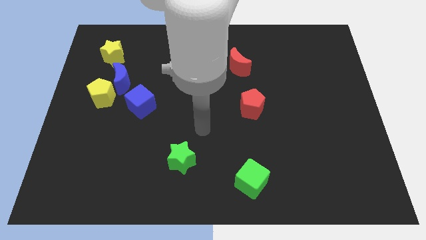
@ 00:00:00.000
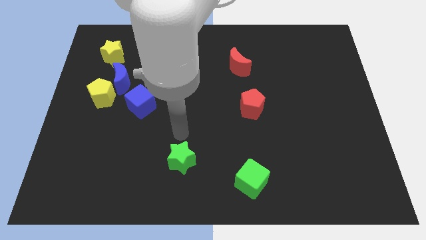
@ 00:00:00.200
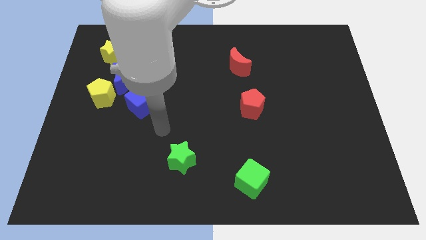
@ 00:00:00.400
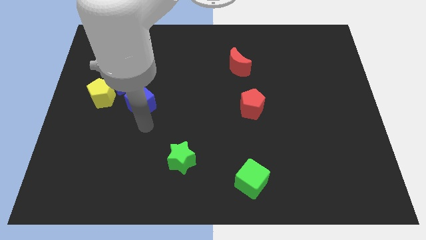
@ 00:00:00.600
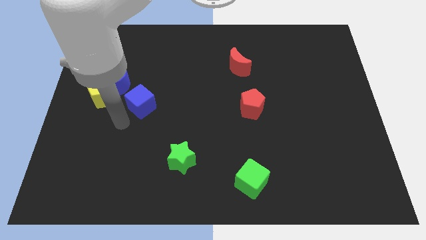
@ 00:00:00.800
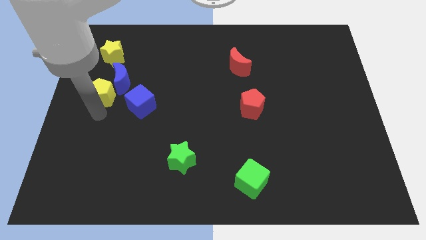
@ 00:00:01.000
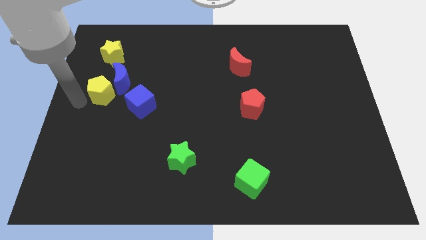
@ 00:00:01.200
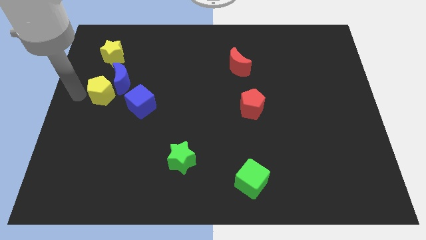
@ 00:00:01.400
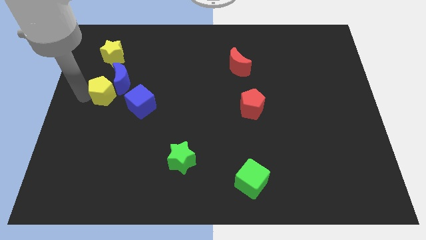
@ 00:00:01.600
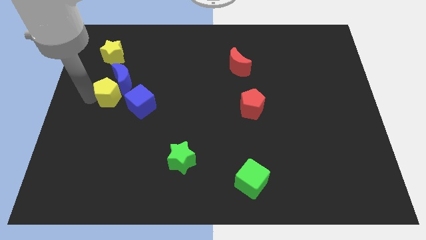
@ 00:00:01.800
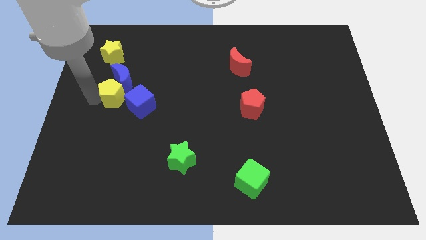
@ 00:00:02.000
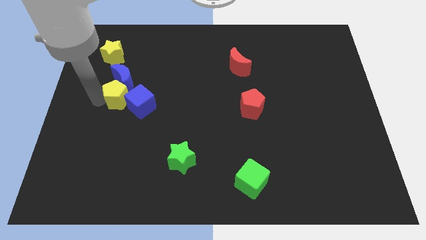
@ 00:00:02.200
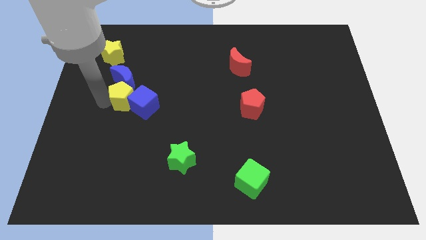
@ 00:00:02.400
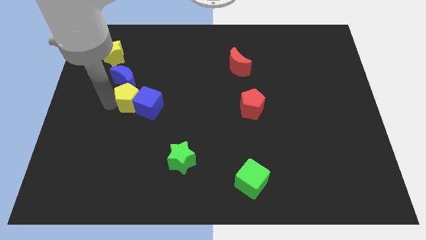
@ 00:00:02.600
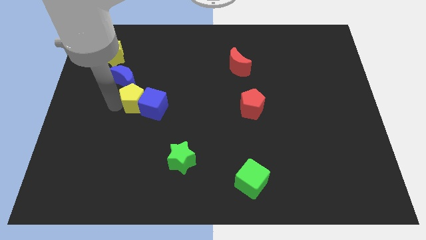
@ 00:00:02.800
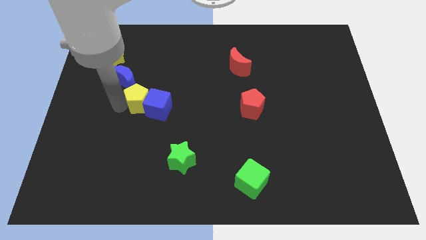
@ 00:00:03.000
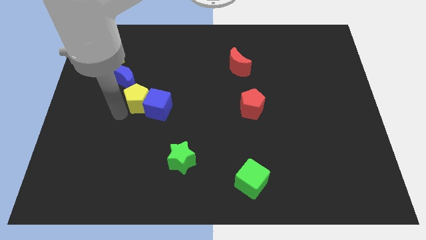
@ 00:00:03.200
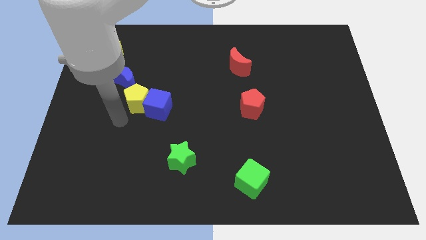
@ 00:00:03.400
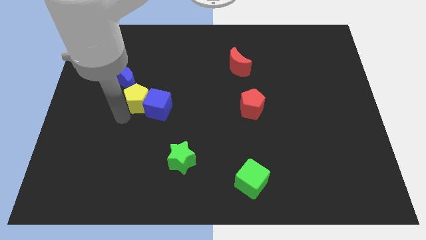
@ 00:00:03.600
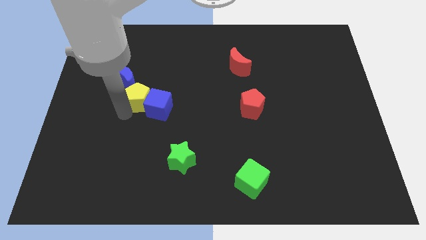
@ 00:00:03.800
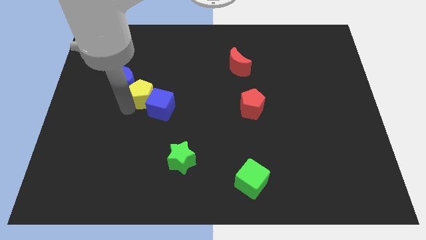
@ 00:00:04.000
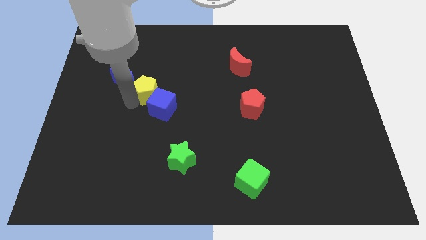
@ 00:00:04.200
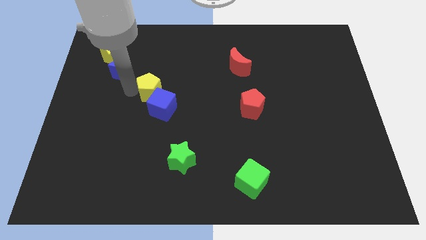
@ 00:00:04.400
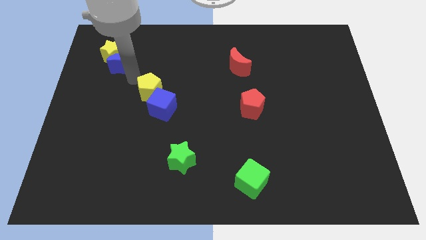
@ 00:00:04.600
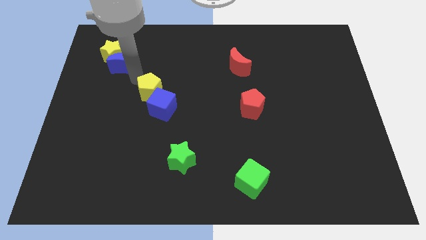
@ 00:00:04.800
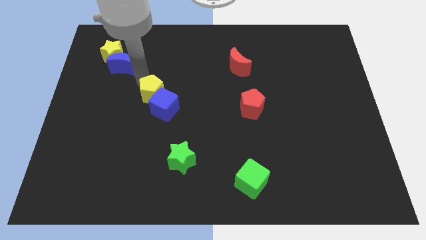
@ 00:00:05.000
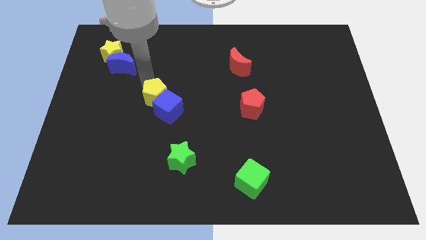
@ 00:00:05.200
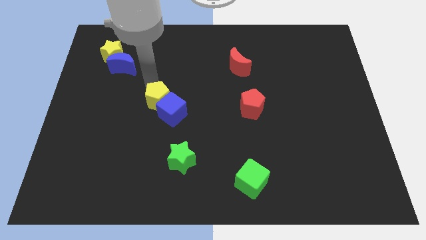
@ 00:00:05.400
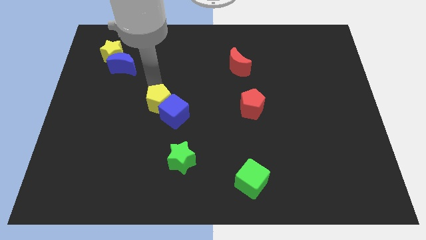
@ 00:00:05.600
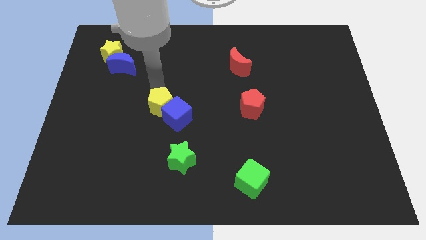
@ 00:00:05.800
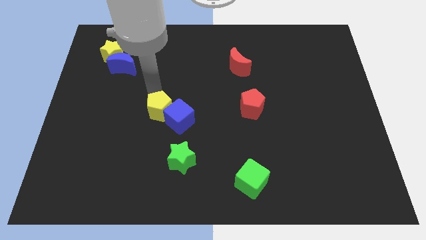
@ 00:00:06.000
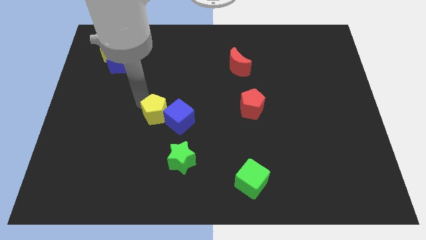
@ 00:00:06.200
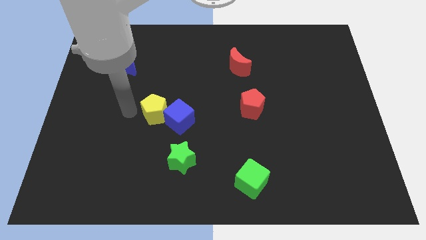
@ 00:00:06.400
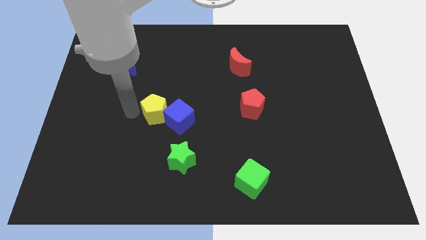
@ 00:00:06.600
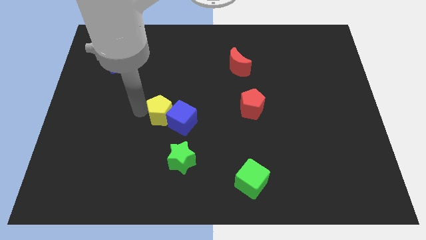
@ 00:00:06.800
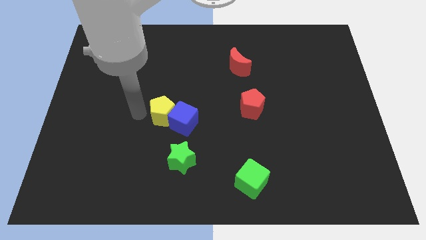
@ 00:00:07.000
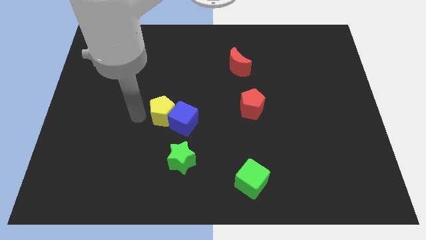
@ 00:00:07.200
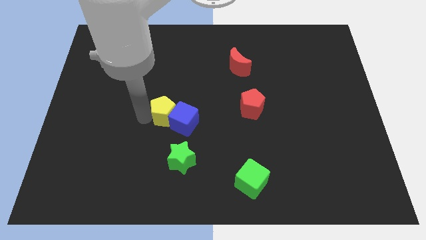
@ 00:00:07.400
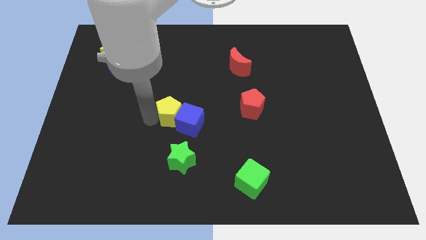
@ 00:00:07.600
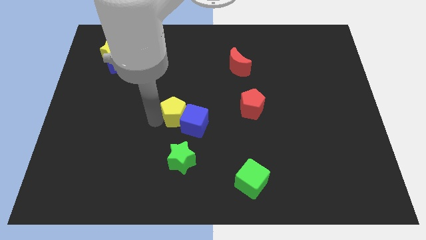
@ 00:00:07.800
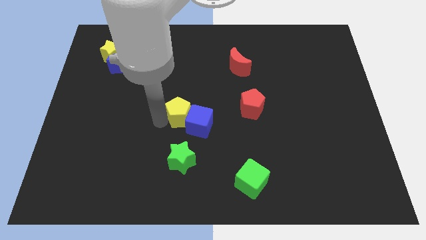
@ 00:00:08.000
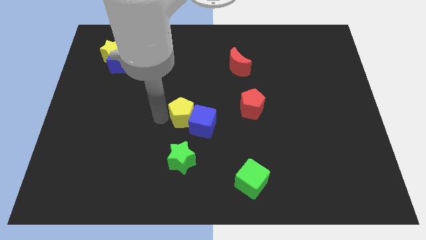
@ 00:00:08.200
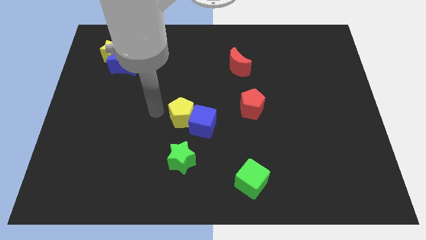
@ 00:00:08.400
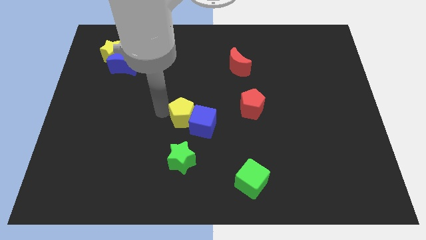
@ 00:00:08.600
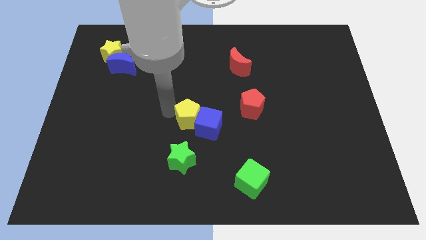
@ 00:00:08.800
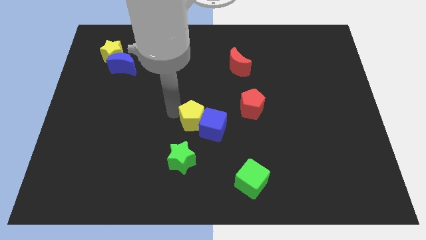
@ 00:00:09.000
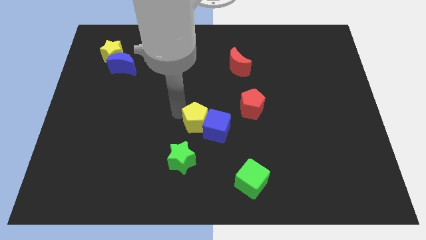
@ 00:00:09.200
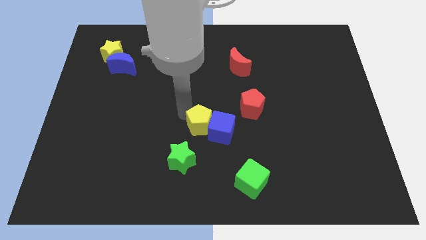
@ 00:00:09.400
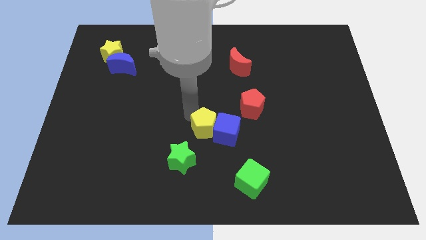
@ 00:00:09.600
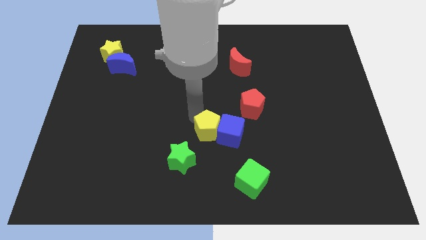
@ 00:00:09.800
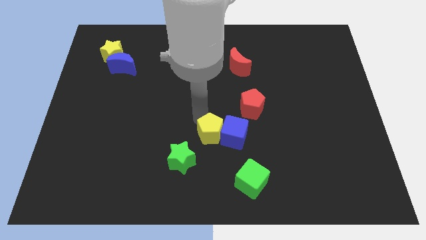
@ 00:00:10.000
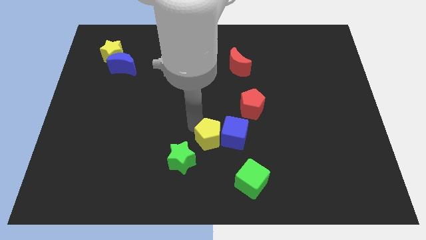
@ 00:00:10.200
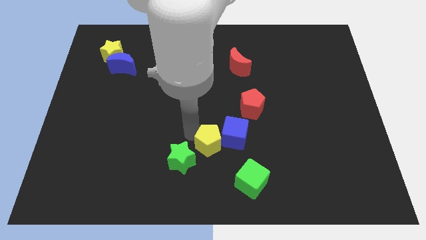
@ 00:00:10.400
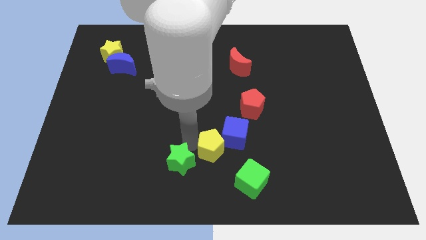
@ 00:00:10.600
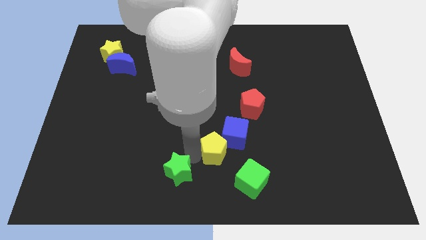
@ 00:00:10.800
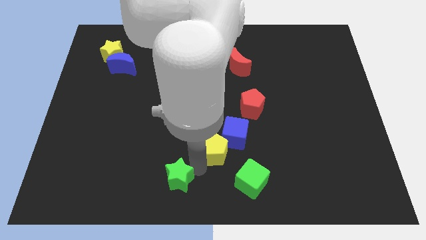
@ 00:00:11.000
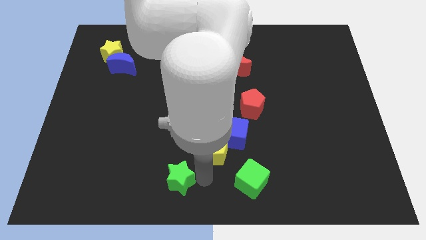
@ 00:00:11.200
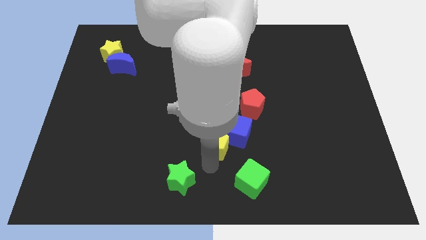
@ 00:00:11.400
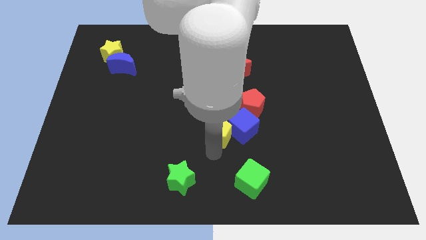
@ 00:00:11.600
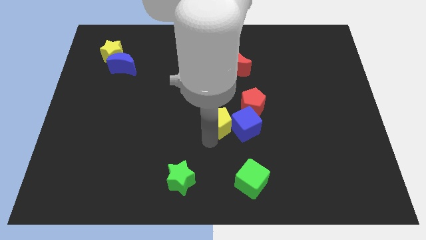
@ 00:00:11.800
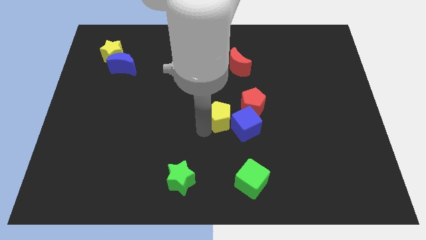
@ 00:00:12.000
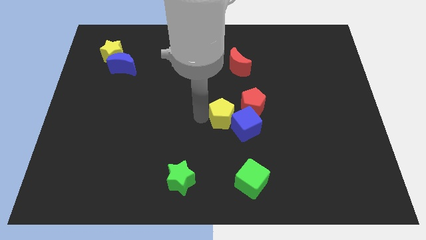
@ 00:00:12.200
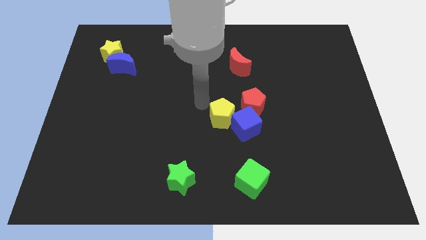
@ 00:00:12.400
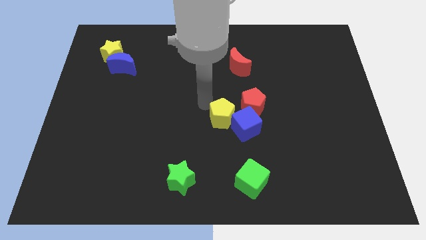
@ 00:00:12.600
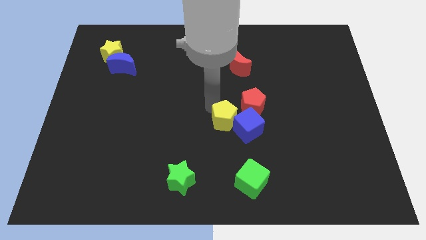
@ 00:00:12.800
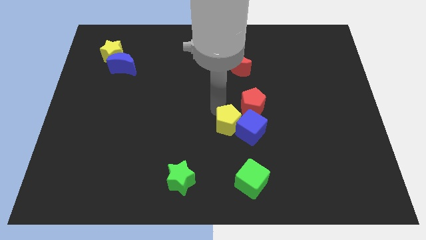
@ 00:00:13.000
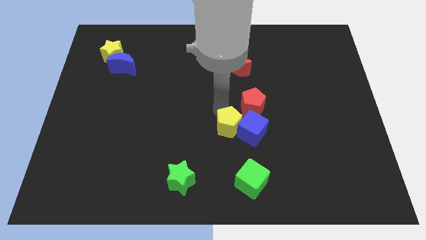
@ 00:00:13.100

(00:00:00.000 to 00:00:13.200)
slide the yellow pentagon to the top of the green cube
